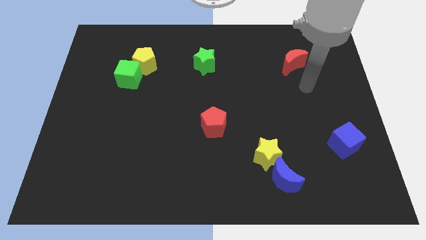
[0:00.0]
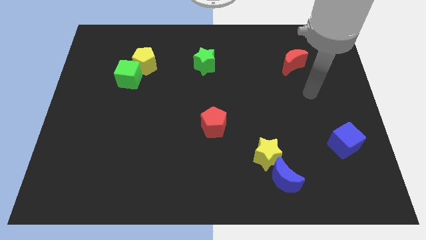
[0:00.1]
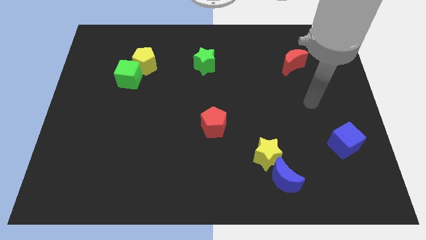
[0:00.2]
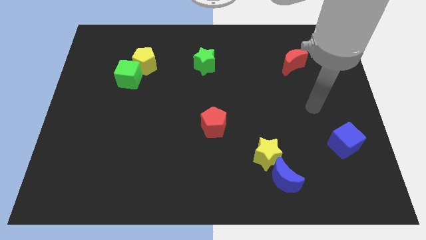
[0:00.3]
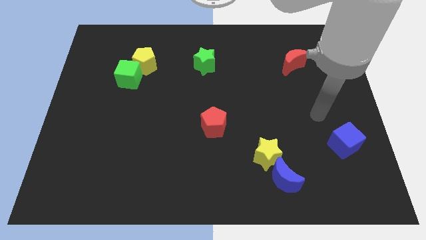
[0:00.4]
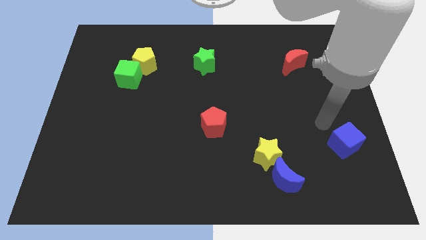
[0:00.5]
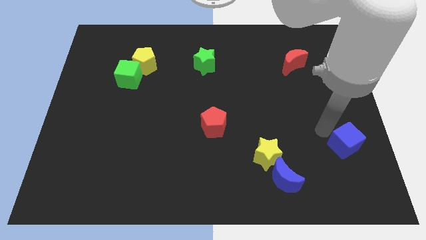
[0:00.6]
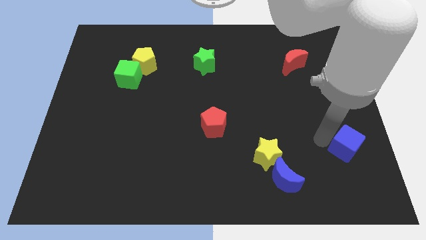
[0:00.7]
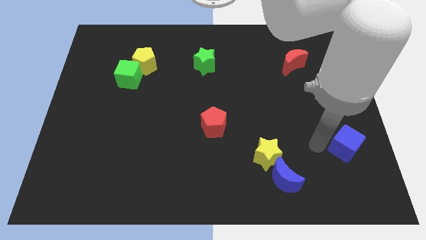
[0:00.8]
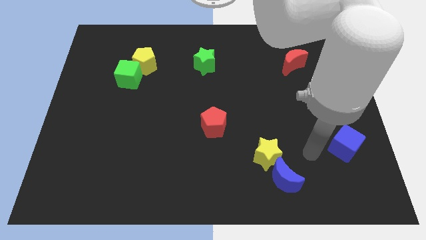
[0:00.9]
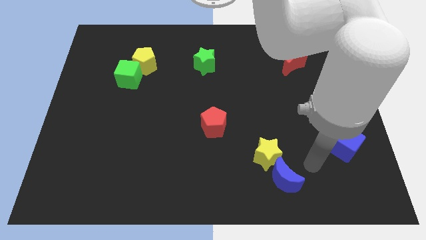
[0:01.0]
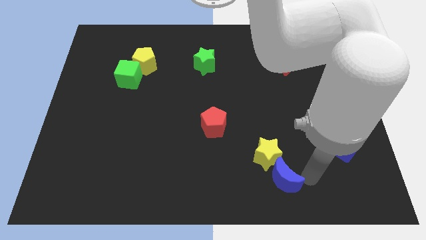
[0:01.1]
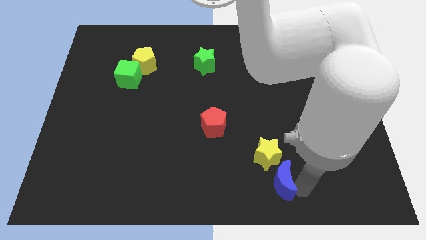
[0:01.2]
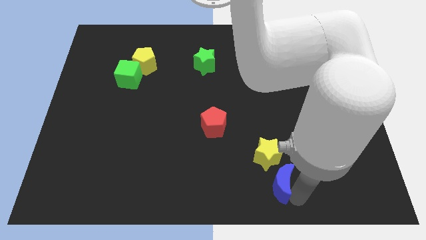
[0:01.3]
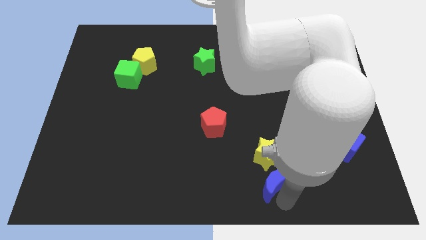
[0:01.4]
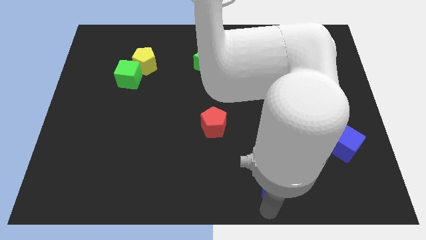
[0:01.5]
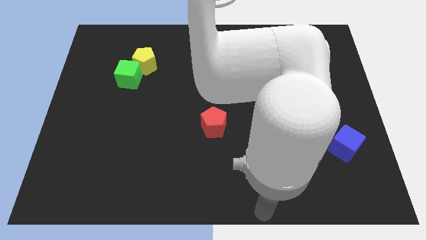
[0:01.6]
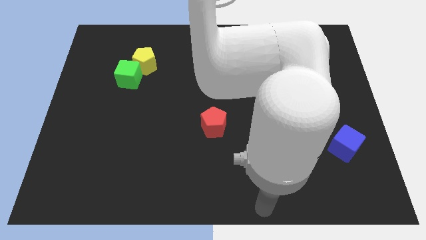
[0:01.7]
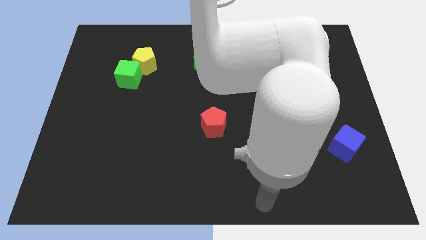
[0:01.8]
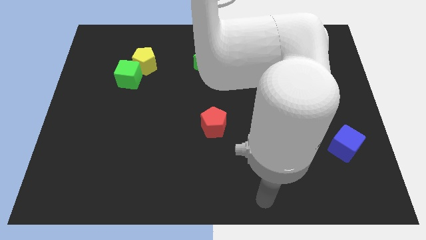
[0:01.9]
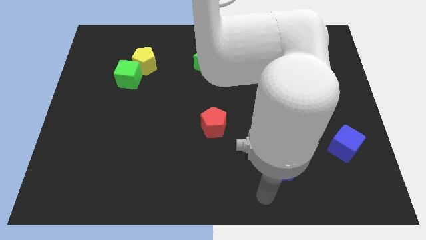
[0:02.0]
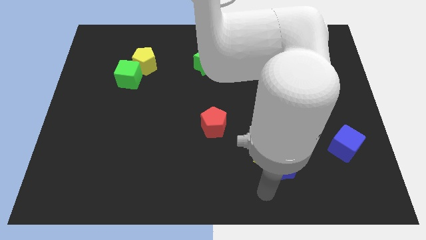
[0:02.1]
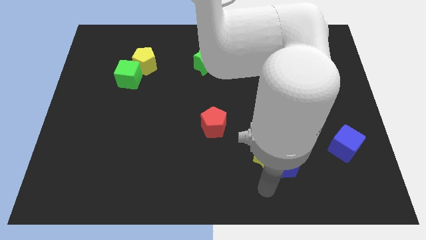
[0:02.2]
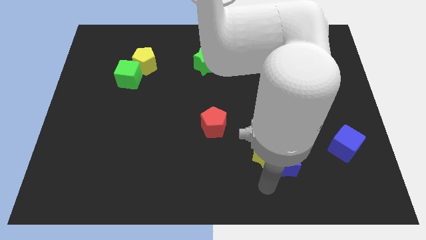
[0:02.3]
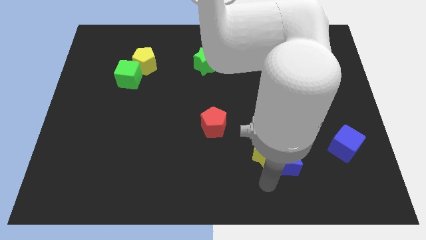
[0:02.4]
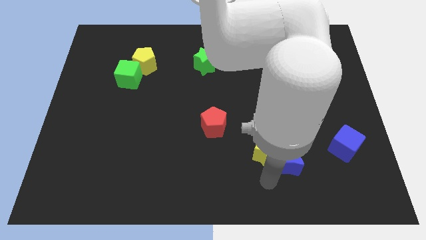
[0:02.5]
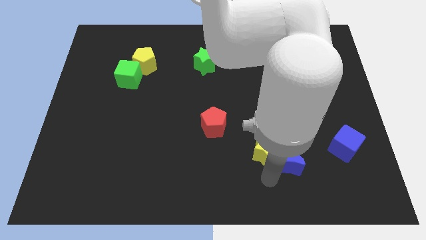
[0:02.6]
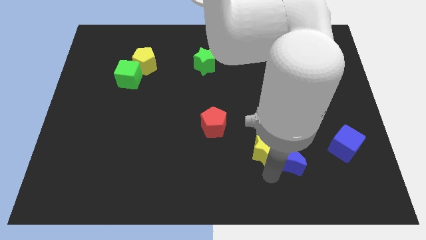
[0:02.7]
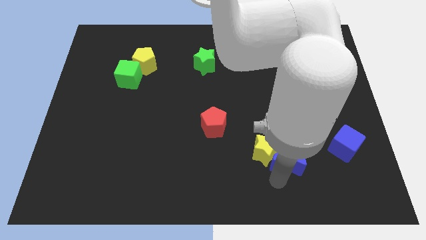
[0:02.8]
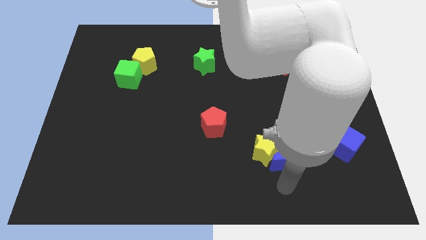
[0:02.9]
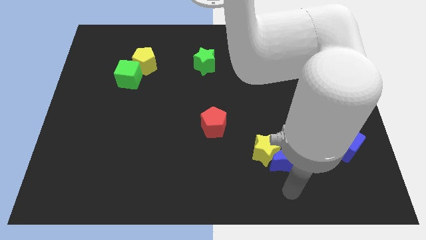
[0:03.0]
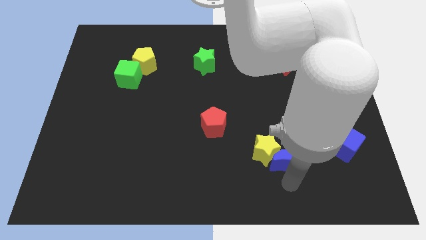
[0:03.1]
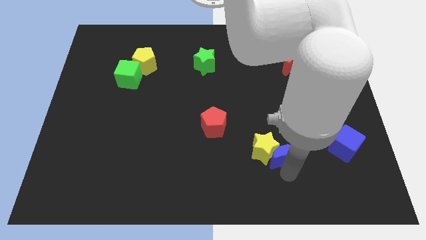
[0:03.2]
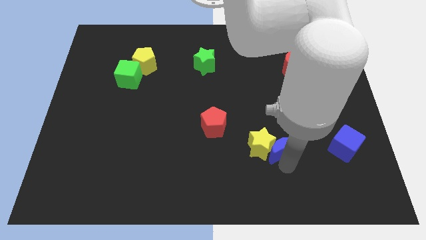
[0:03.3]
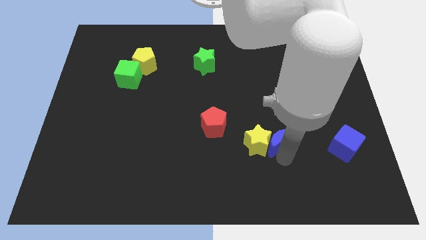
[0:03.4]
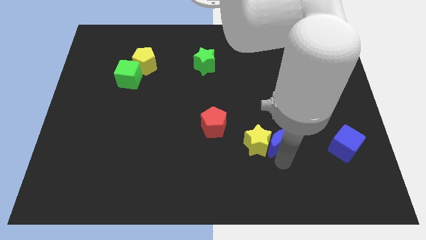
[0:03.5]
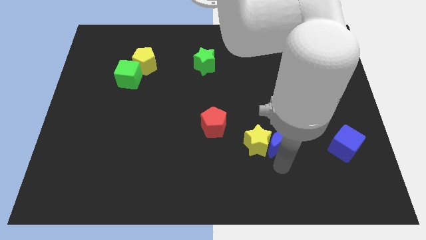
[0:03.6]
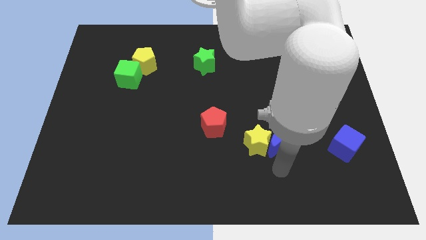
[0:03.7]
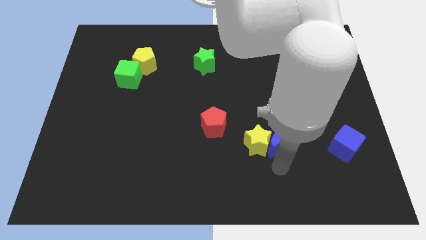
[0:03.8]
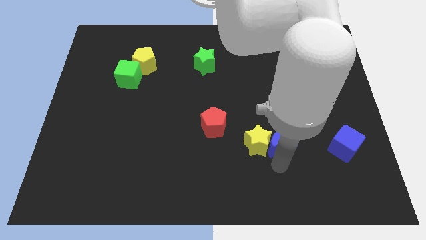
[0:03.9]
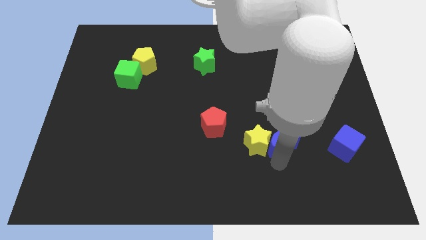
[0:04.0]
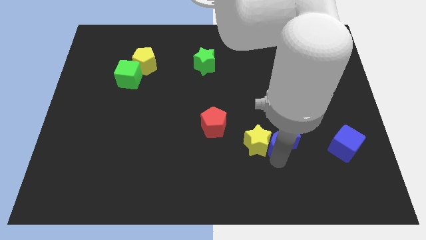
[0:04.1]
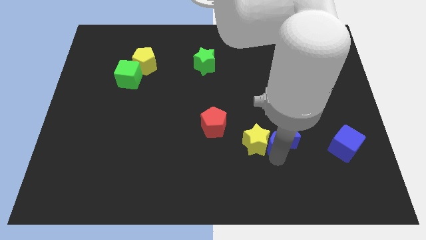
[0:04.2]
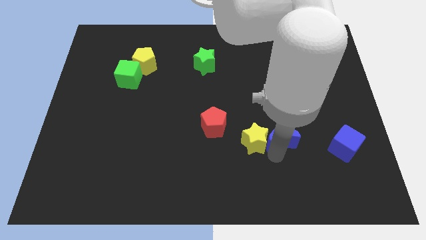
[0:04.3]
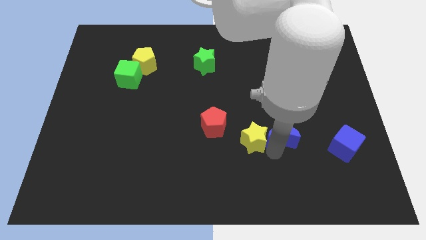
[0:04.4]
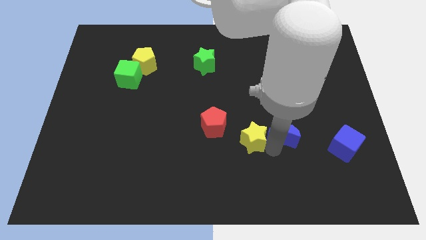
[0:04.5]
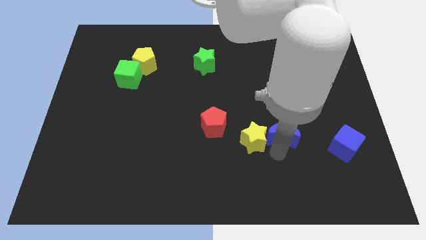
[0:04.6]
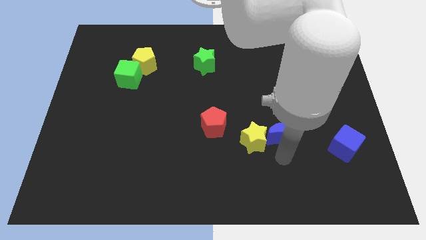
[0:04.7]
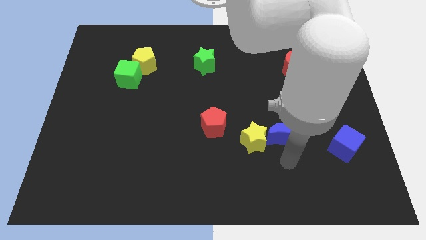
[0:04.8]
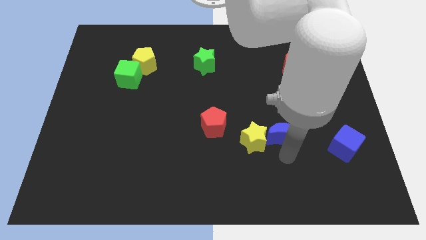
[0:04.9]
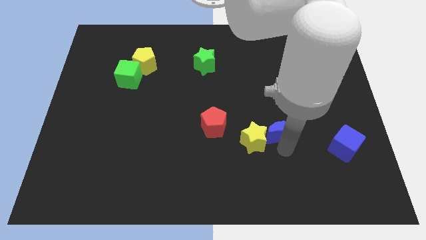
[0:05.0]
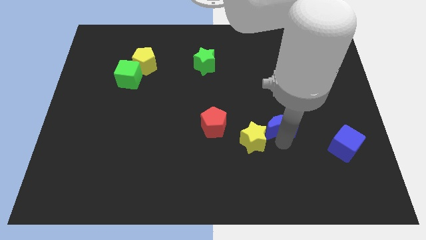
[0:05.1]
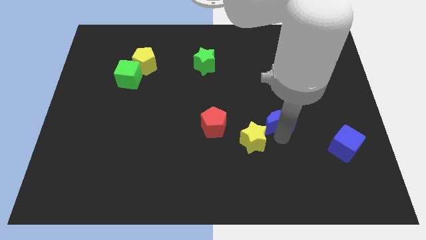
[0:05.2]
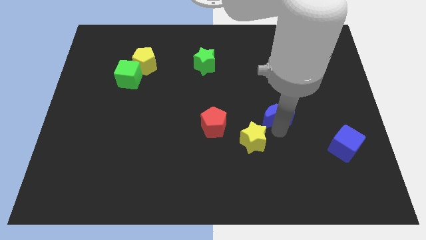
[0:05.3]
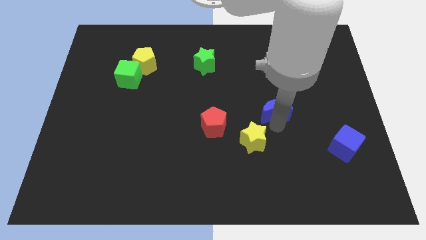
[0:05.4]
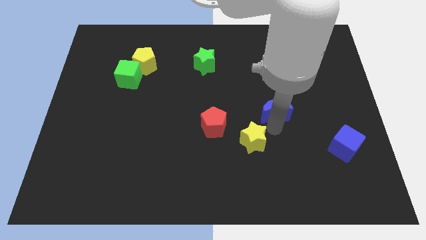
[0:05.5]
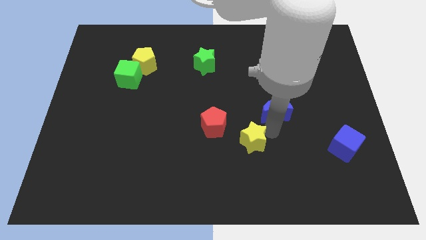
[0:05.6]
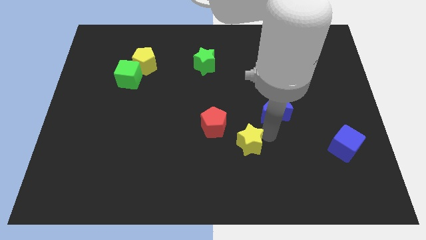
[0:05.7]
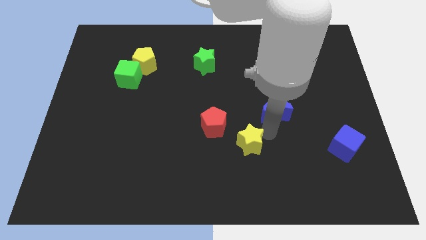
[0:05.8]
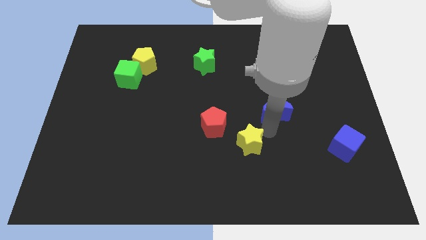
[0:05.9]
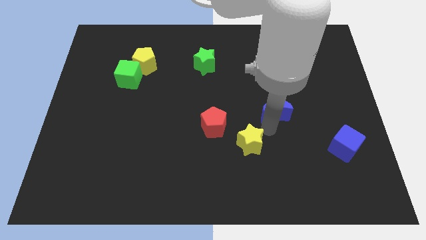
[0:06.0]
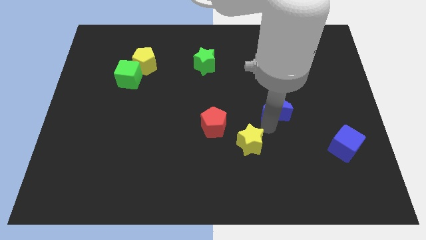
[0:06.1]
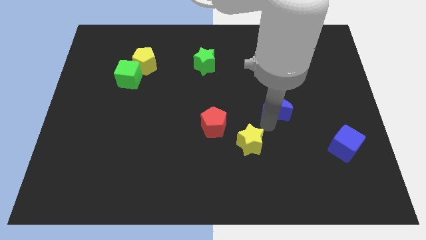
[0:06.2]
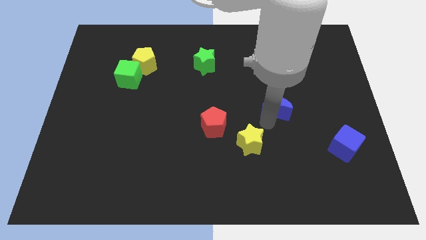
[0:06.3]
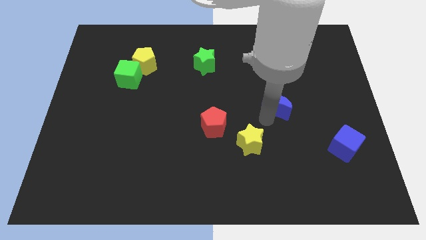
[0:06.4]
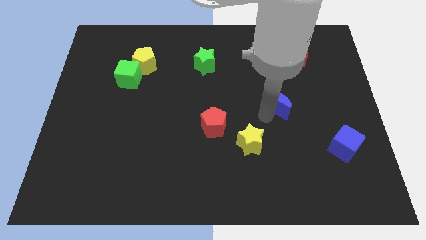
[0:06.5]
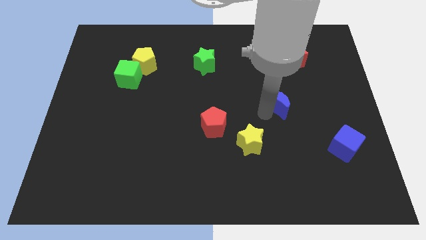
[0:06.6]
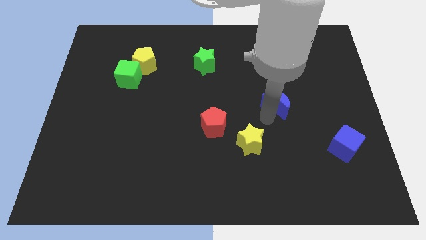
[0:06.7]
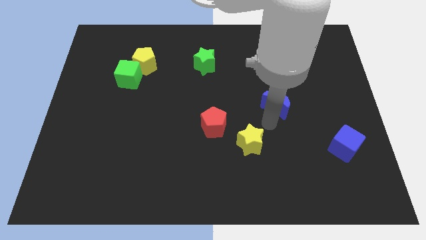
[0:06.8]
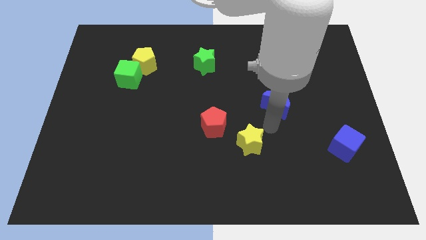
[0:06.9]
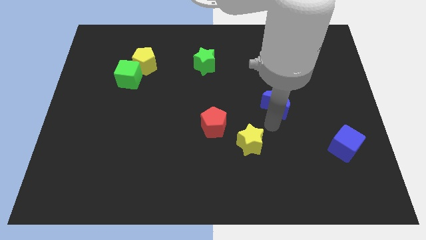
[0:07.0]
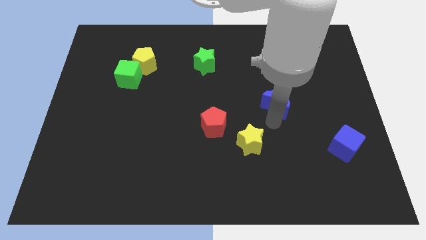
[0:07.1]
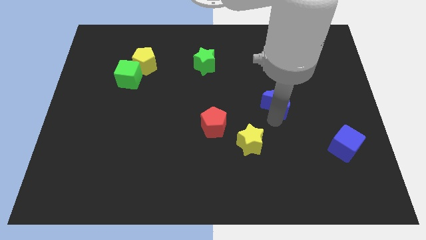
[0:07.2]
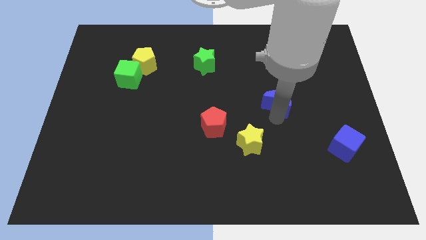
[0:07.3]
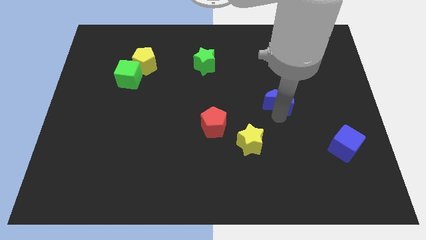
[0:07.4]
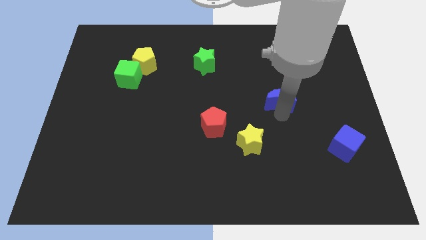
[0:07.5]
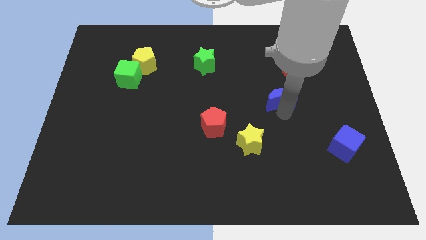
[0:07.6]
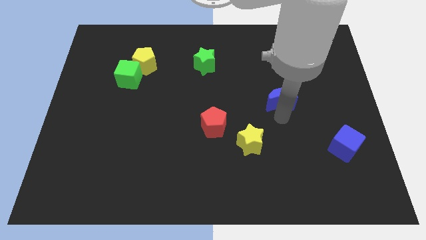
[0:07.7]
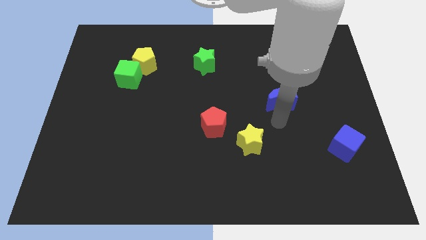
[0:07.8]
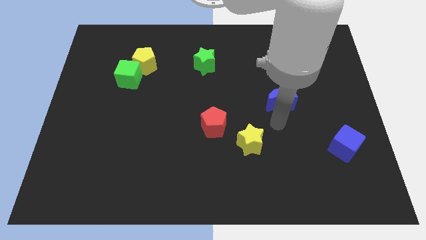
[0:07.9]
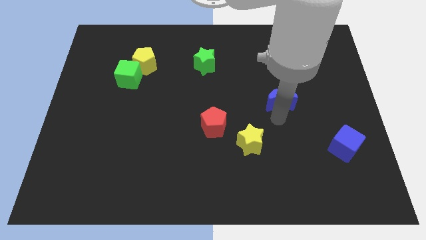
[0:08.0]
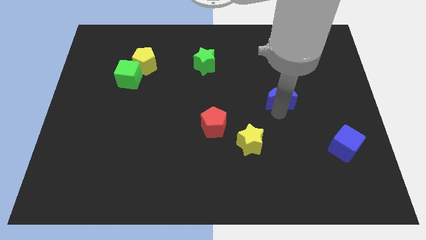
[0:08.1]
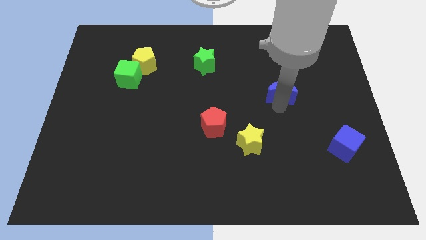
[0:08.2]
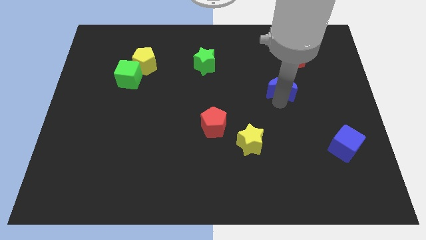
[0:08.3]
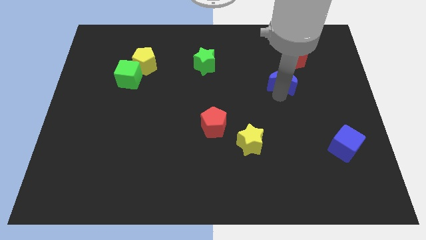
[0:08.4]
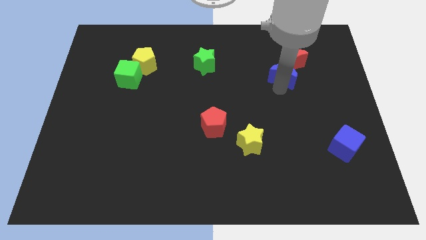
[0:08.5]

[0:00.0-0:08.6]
move the blue moon close to the red moon
